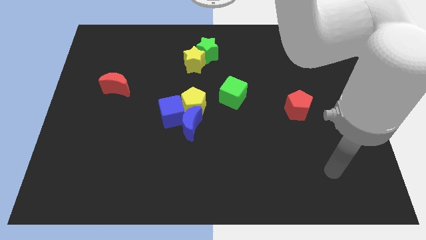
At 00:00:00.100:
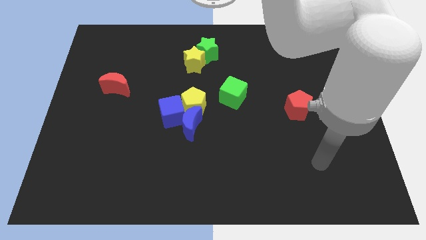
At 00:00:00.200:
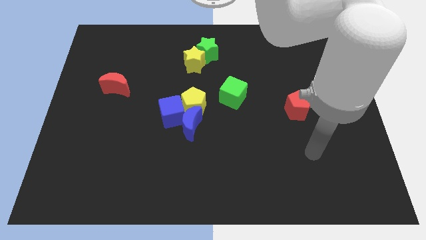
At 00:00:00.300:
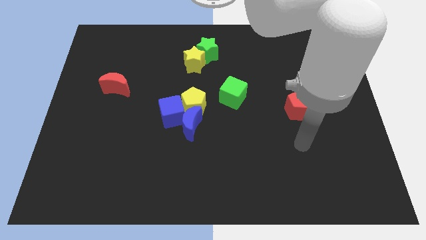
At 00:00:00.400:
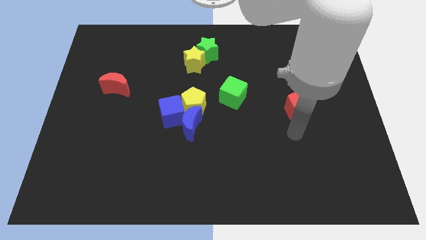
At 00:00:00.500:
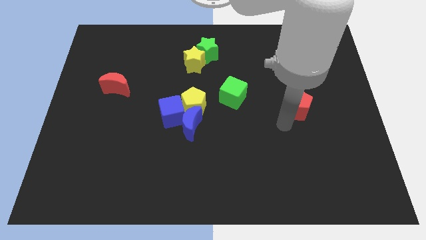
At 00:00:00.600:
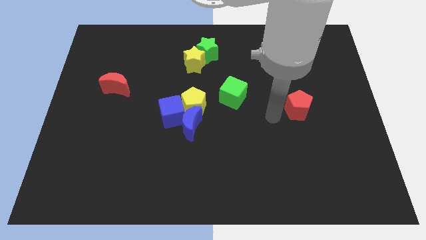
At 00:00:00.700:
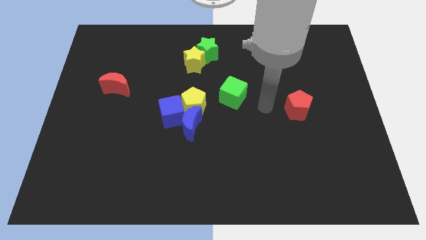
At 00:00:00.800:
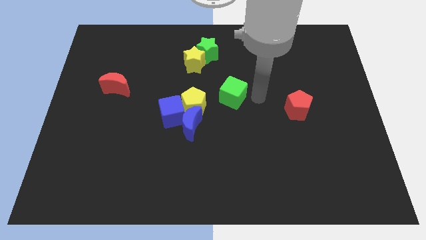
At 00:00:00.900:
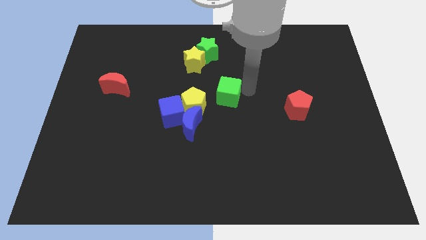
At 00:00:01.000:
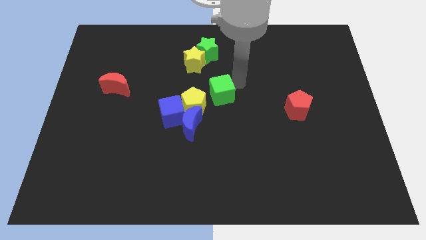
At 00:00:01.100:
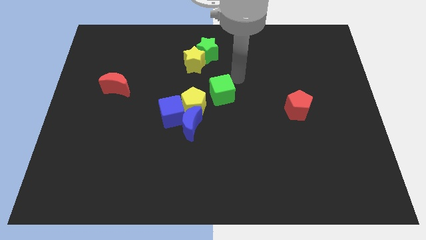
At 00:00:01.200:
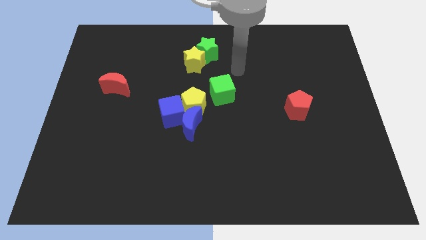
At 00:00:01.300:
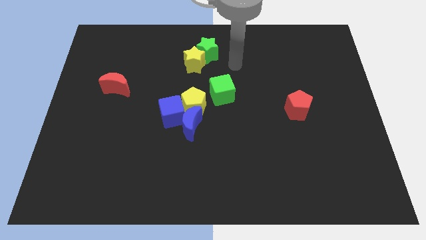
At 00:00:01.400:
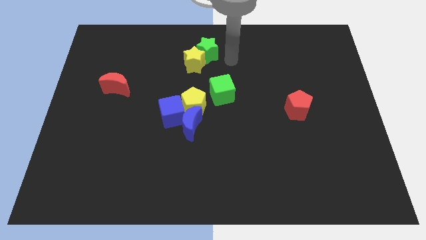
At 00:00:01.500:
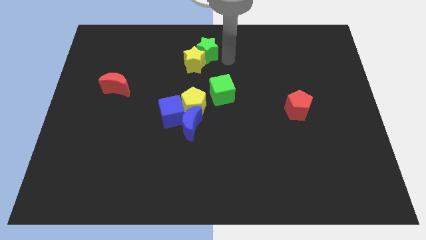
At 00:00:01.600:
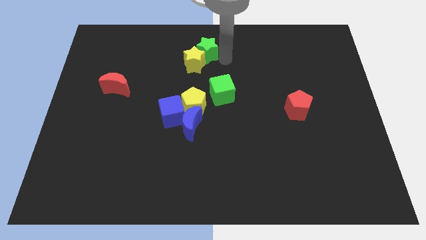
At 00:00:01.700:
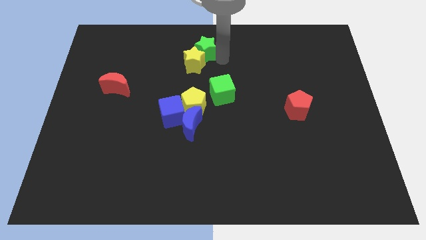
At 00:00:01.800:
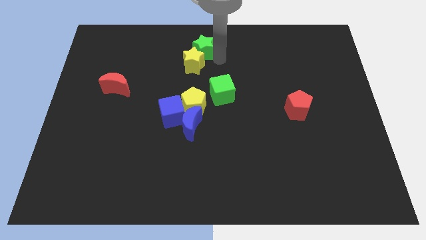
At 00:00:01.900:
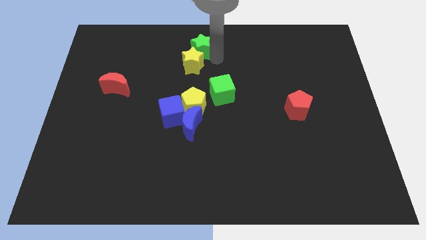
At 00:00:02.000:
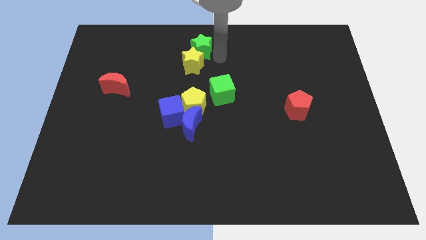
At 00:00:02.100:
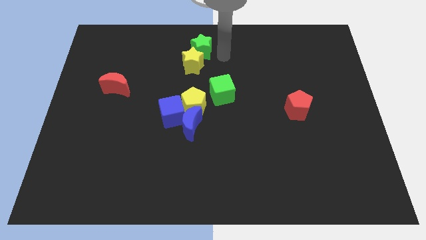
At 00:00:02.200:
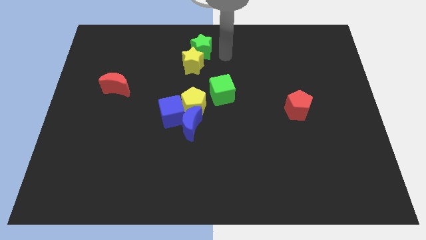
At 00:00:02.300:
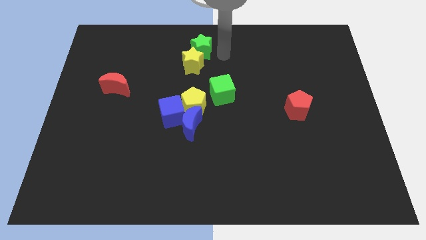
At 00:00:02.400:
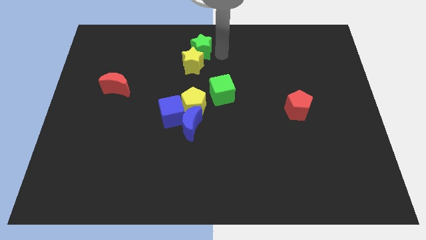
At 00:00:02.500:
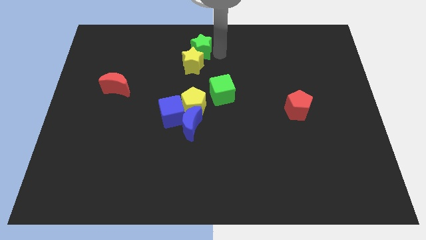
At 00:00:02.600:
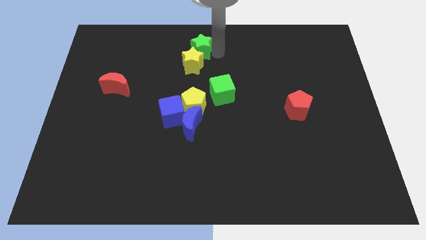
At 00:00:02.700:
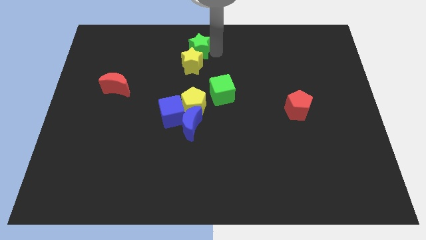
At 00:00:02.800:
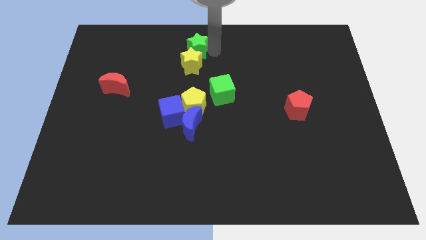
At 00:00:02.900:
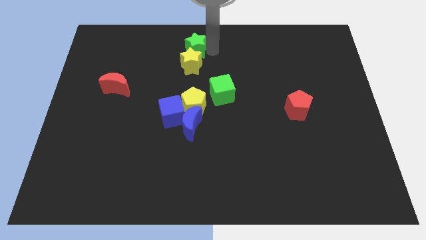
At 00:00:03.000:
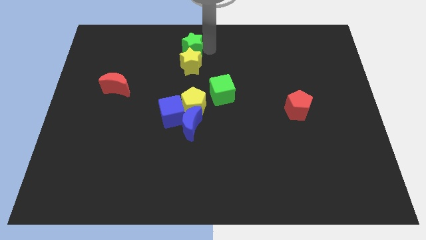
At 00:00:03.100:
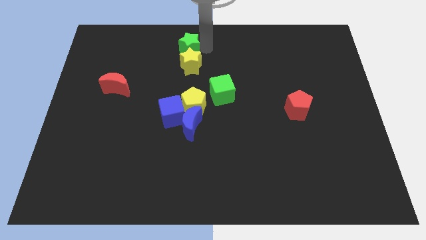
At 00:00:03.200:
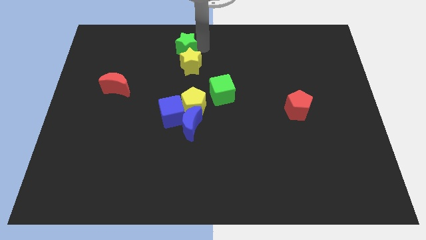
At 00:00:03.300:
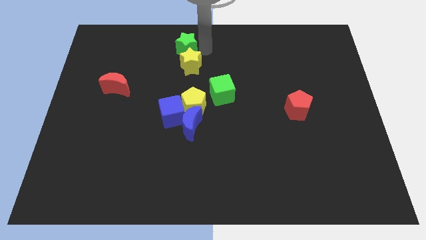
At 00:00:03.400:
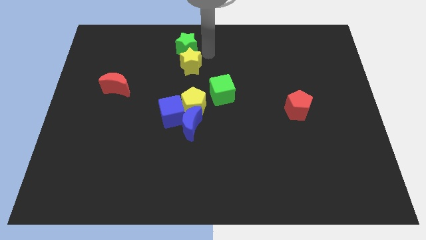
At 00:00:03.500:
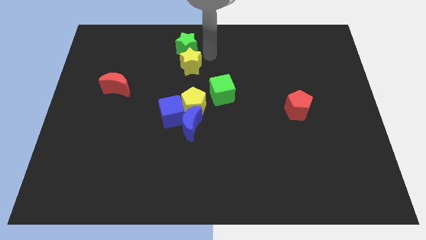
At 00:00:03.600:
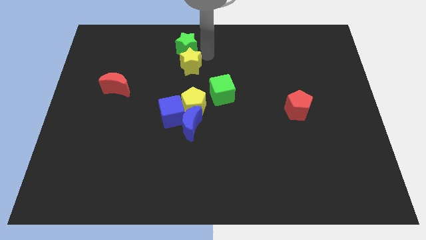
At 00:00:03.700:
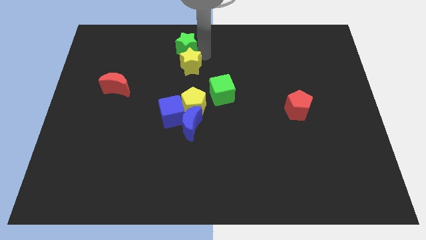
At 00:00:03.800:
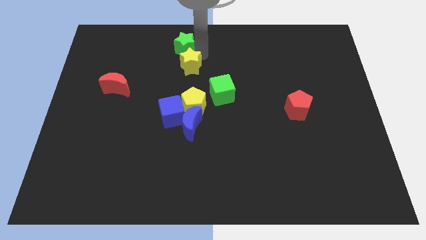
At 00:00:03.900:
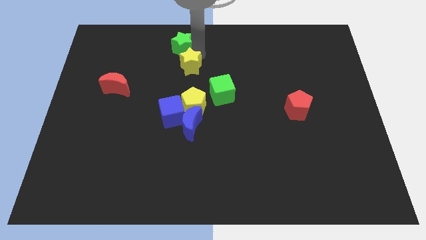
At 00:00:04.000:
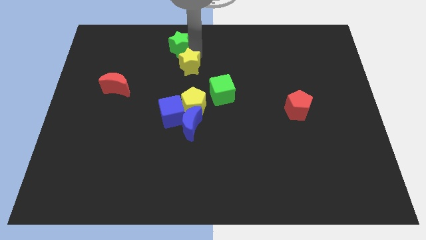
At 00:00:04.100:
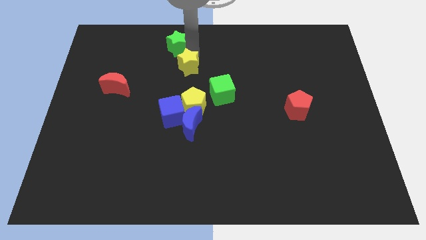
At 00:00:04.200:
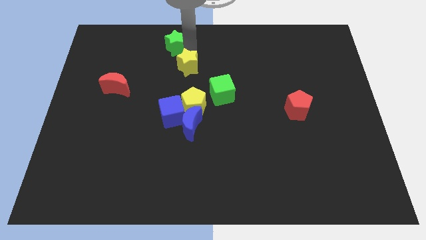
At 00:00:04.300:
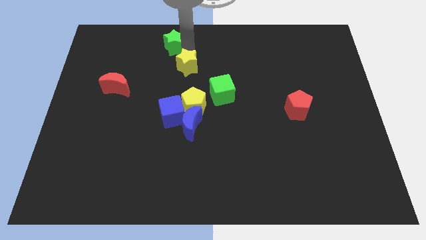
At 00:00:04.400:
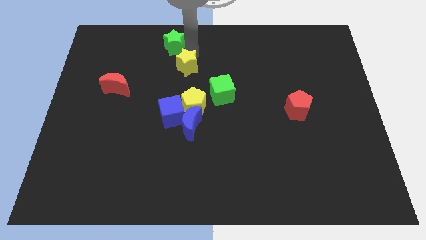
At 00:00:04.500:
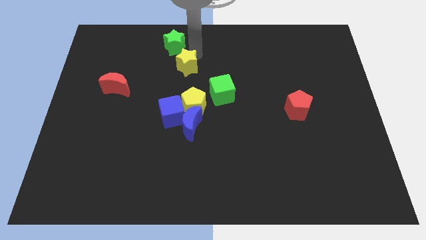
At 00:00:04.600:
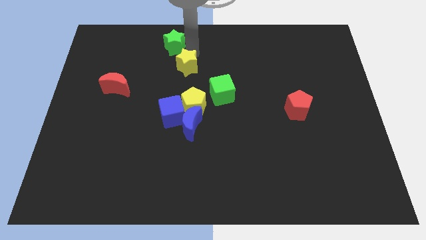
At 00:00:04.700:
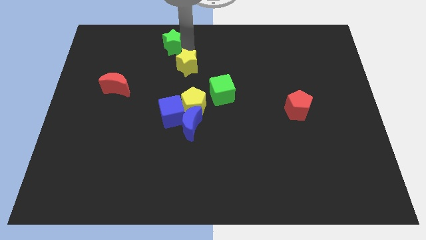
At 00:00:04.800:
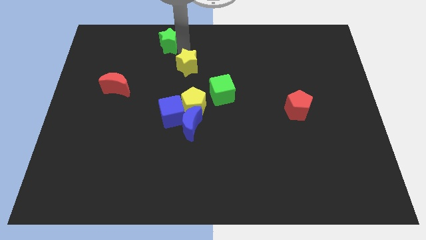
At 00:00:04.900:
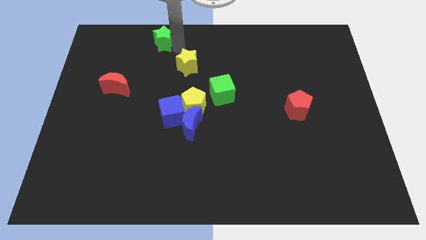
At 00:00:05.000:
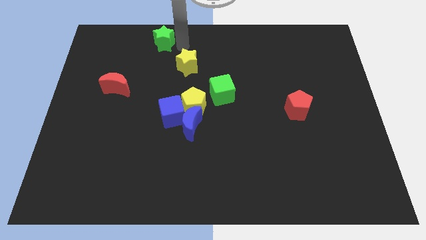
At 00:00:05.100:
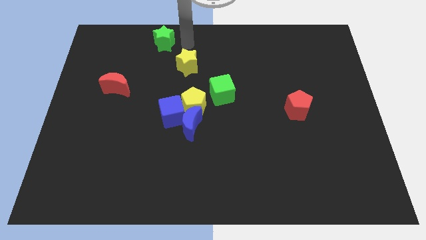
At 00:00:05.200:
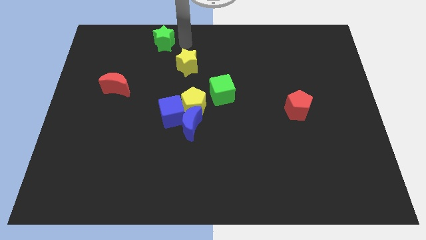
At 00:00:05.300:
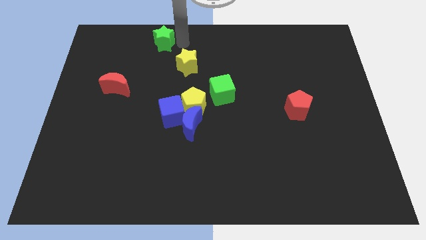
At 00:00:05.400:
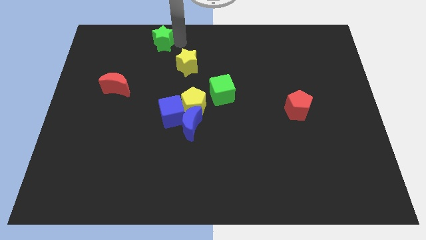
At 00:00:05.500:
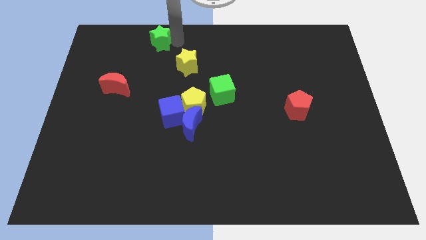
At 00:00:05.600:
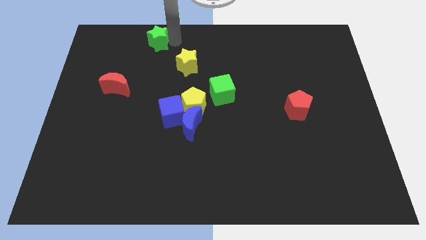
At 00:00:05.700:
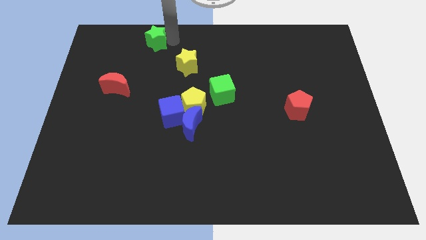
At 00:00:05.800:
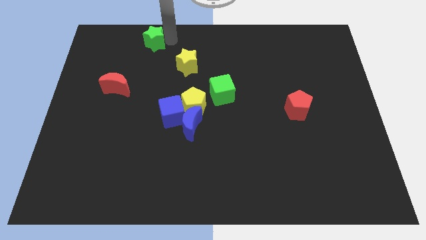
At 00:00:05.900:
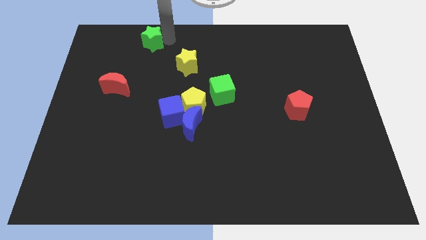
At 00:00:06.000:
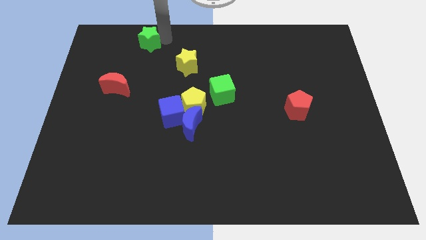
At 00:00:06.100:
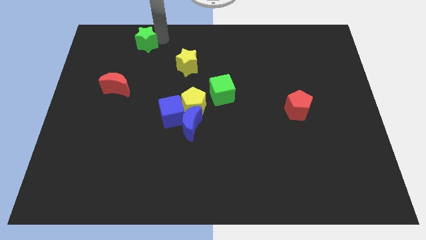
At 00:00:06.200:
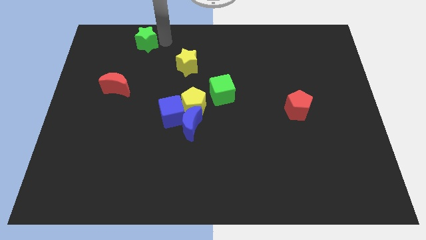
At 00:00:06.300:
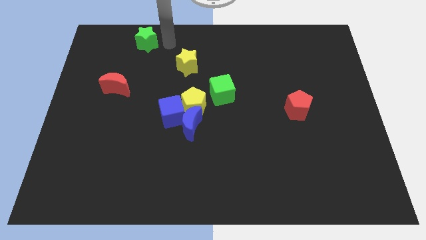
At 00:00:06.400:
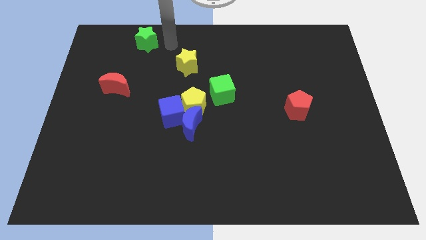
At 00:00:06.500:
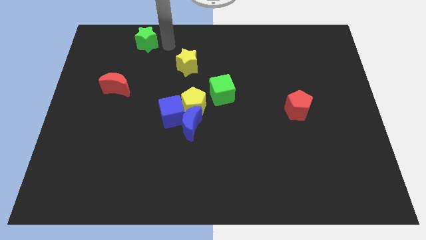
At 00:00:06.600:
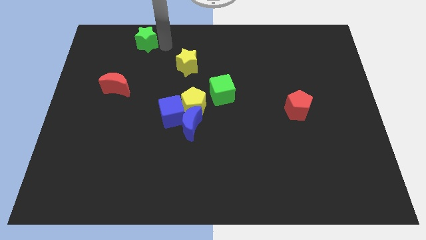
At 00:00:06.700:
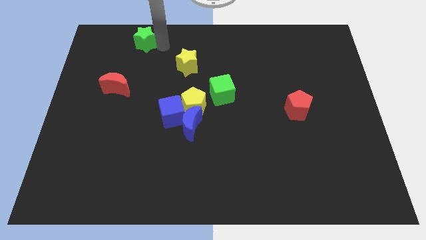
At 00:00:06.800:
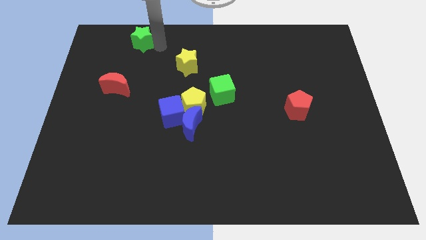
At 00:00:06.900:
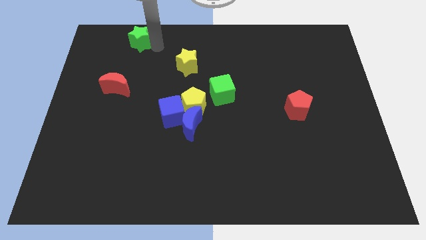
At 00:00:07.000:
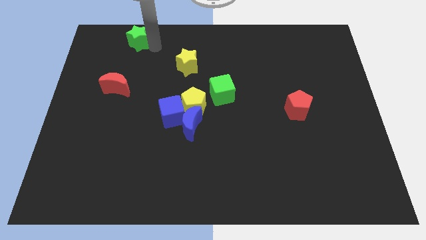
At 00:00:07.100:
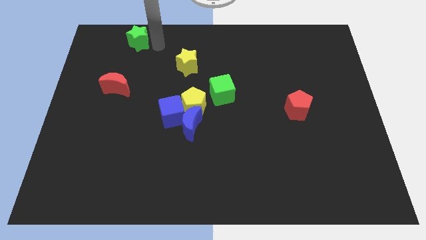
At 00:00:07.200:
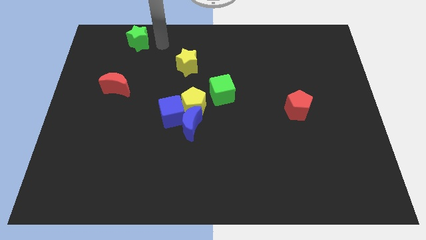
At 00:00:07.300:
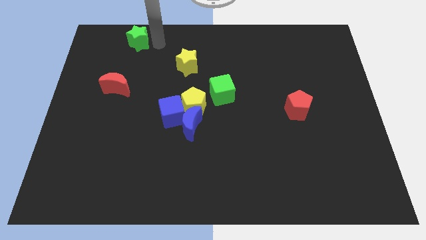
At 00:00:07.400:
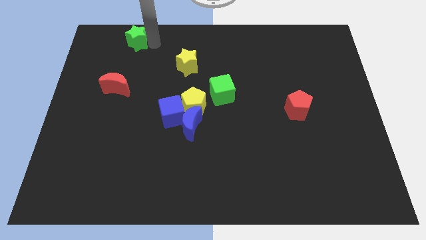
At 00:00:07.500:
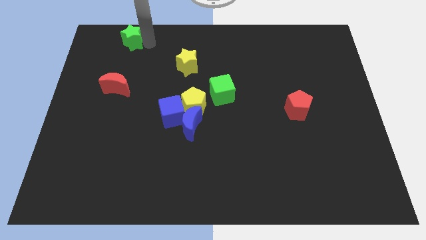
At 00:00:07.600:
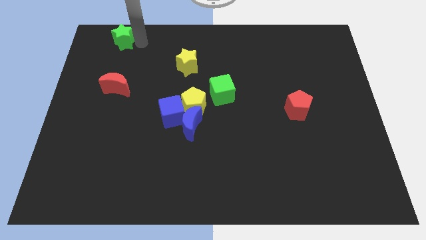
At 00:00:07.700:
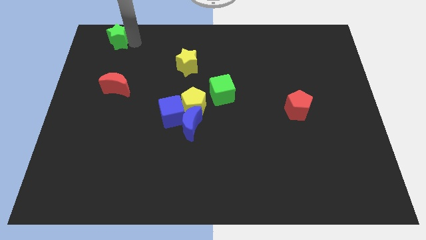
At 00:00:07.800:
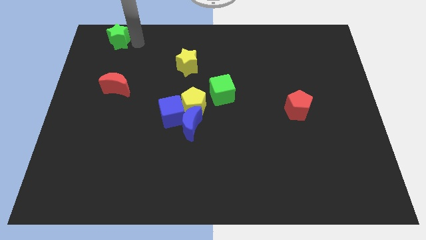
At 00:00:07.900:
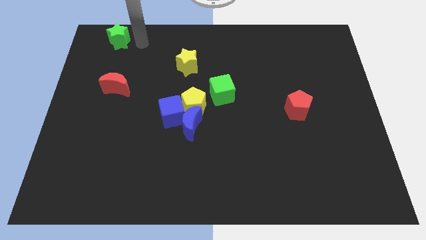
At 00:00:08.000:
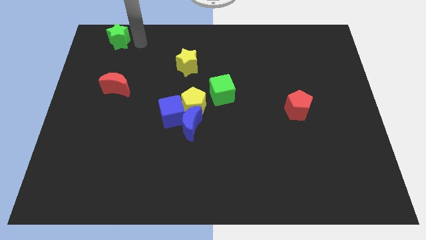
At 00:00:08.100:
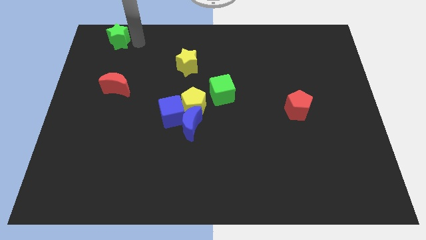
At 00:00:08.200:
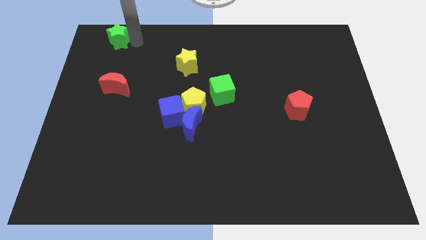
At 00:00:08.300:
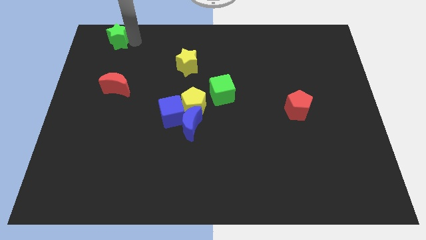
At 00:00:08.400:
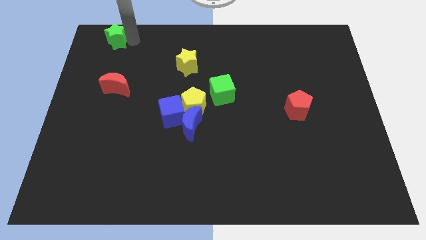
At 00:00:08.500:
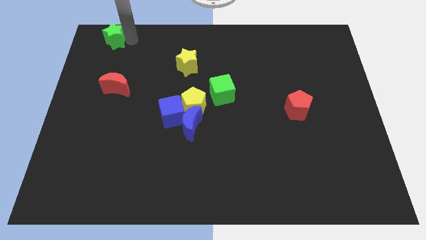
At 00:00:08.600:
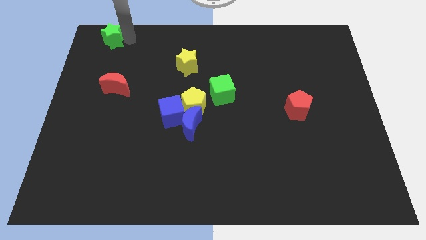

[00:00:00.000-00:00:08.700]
push the green star to the top left
